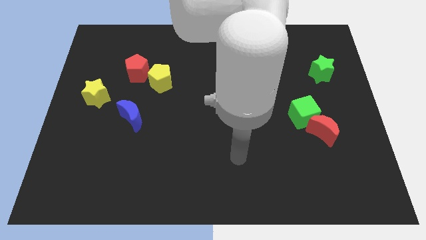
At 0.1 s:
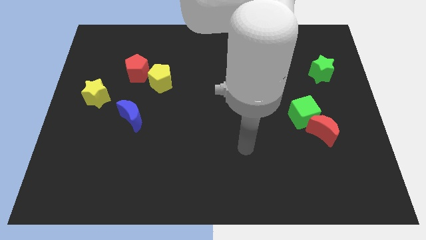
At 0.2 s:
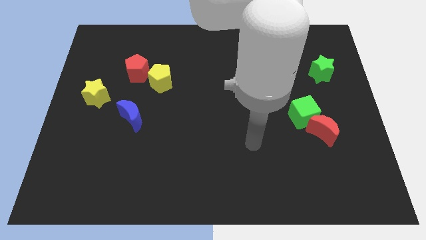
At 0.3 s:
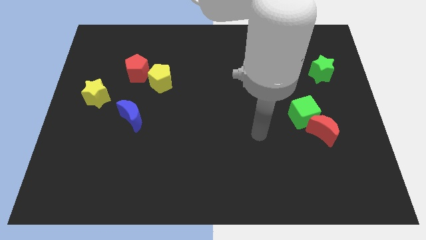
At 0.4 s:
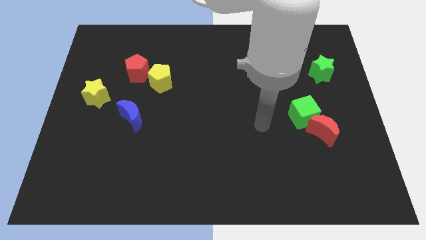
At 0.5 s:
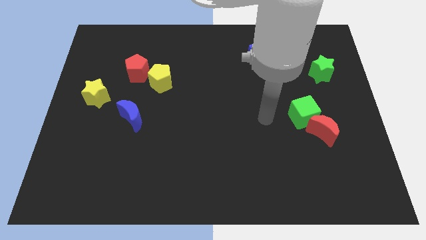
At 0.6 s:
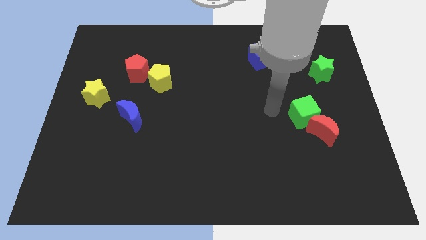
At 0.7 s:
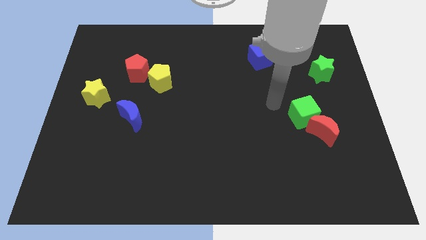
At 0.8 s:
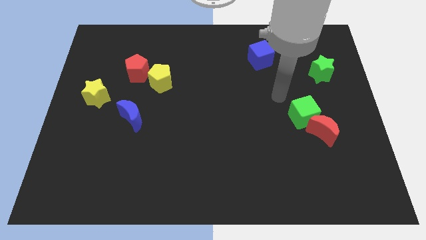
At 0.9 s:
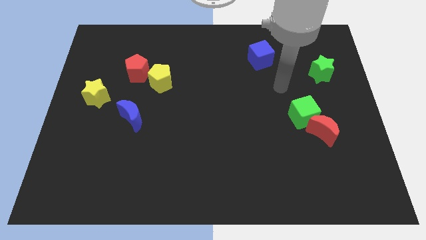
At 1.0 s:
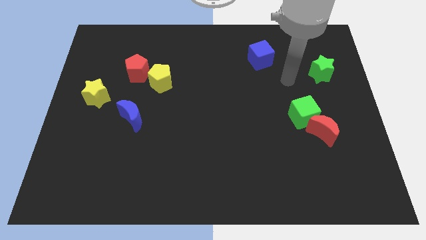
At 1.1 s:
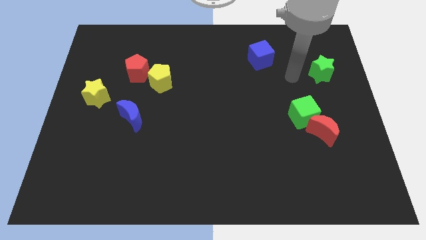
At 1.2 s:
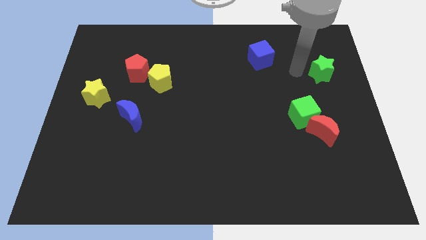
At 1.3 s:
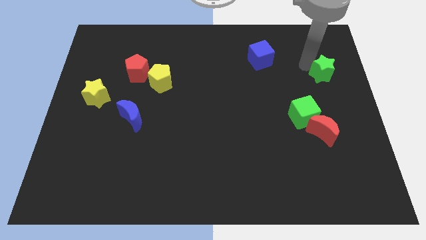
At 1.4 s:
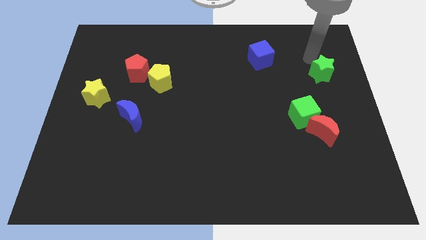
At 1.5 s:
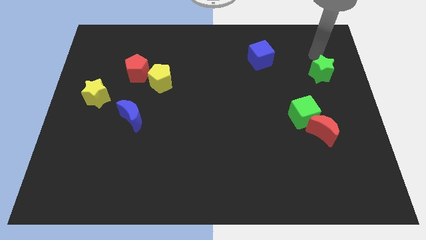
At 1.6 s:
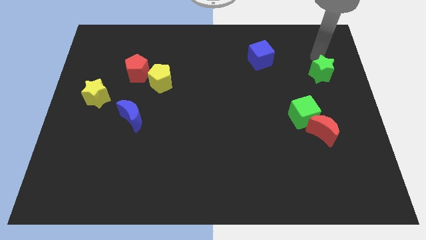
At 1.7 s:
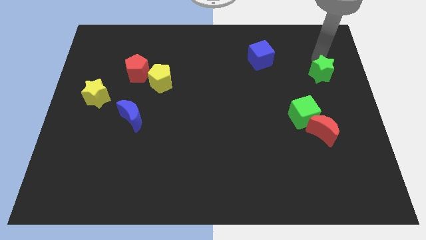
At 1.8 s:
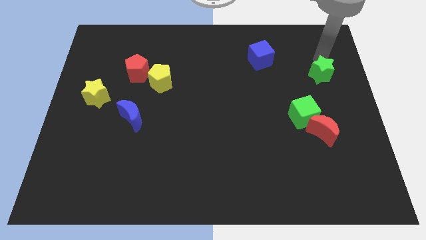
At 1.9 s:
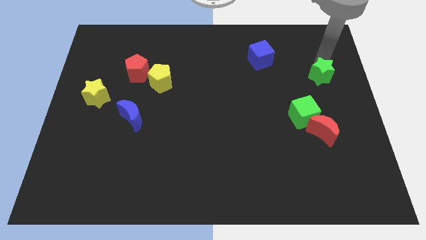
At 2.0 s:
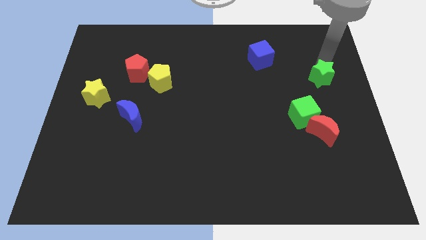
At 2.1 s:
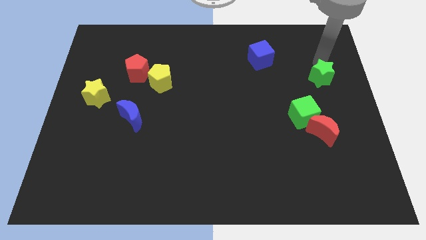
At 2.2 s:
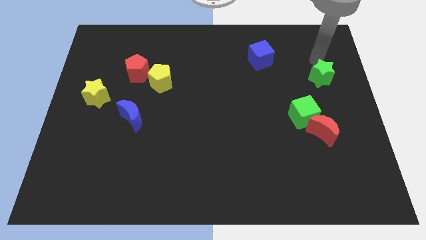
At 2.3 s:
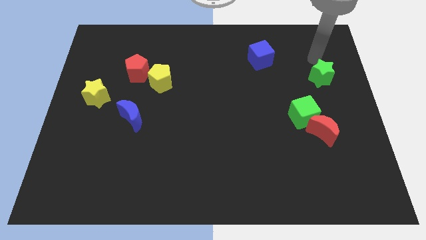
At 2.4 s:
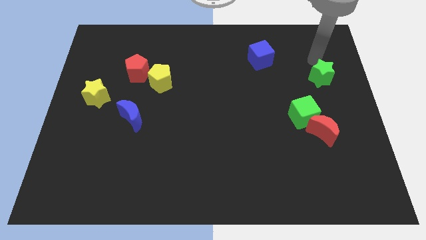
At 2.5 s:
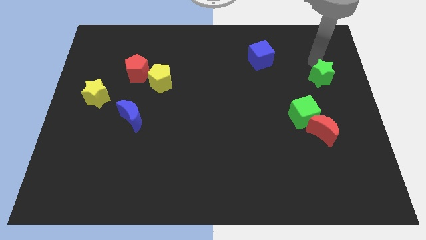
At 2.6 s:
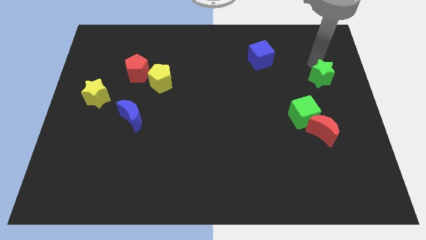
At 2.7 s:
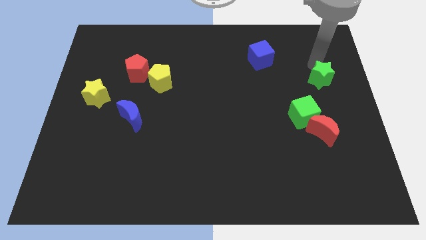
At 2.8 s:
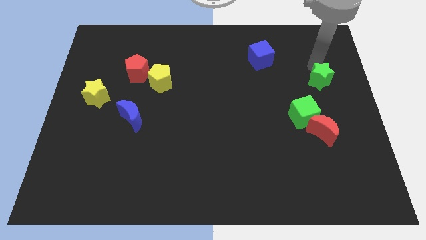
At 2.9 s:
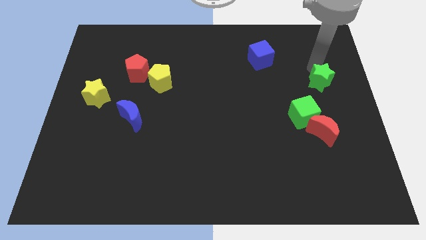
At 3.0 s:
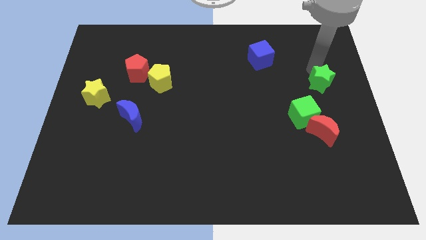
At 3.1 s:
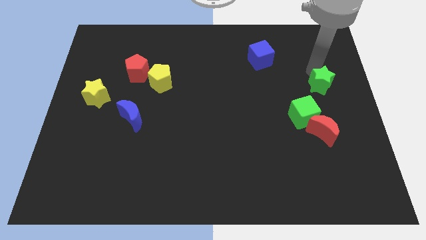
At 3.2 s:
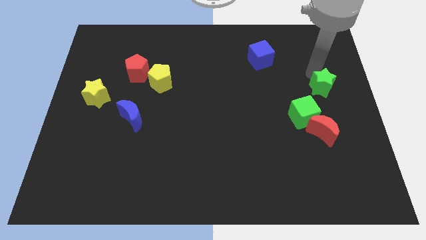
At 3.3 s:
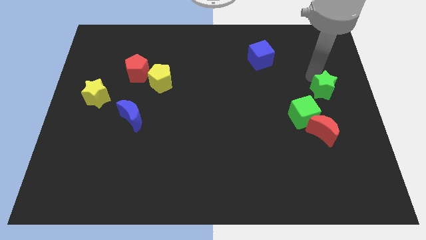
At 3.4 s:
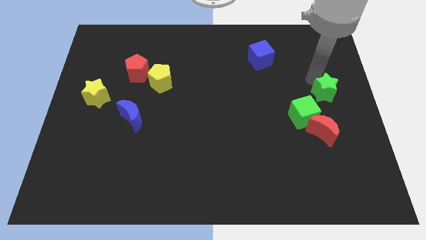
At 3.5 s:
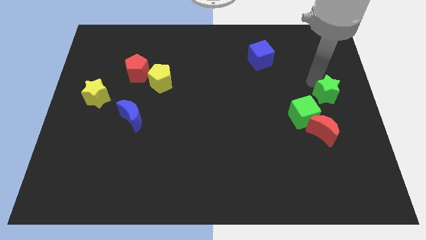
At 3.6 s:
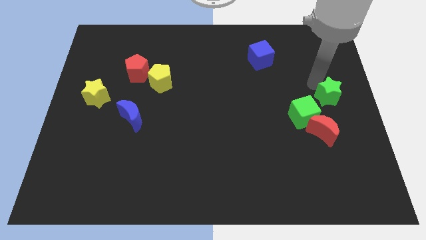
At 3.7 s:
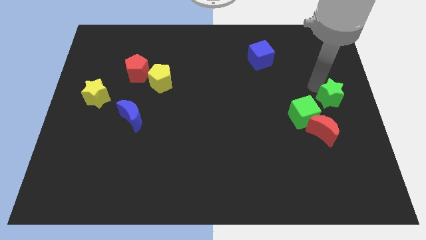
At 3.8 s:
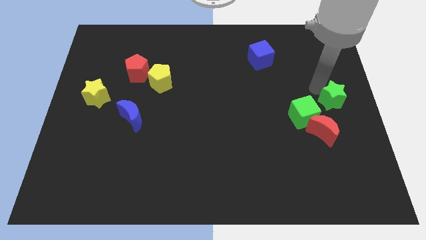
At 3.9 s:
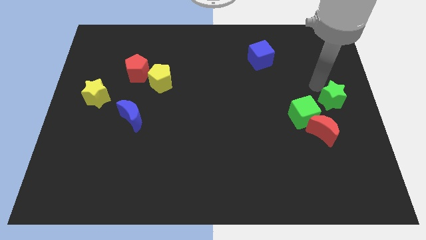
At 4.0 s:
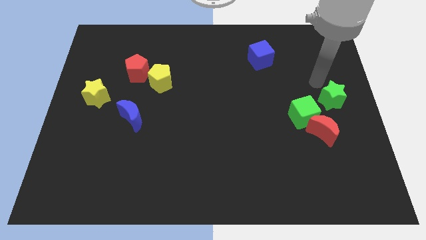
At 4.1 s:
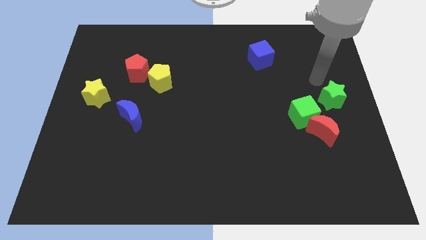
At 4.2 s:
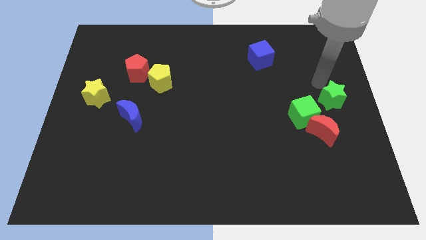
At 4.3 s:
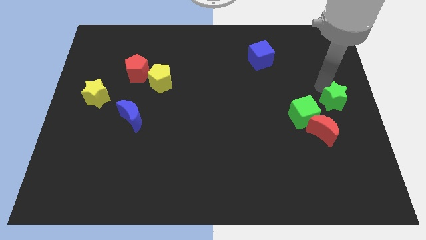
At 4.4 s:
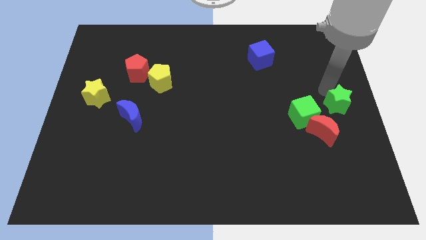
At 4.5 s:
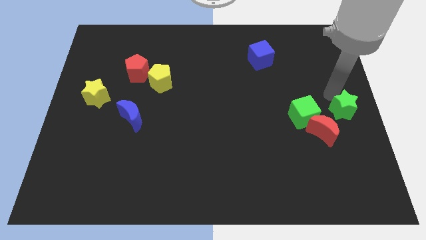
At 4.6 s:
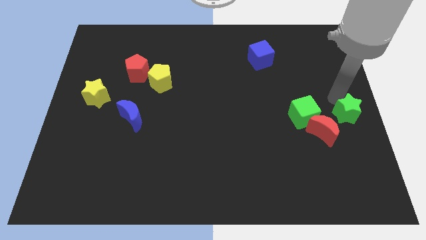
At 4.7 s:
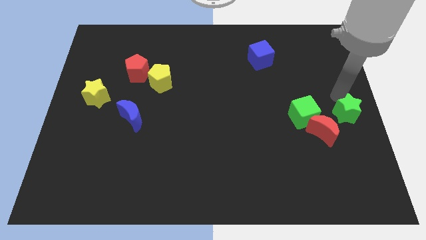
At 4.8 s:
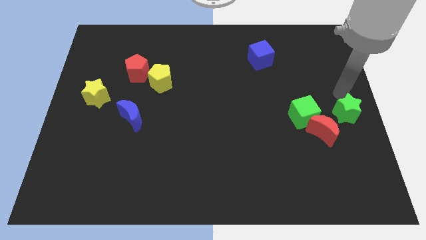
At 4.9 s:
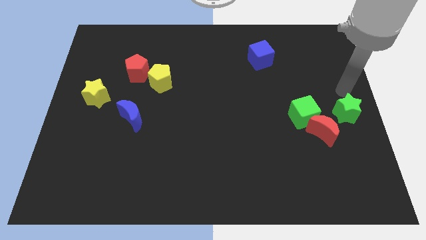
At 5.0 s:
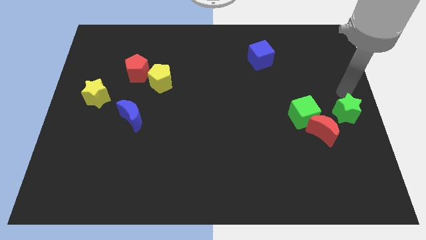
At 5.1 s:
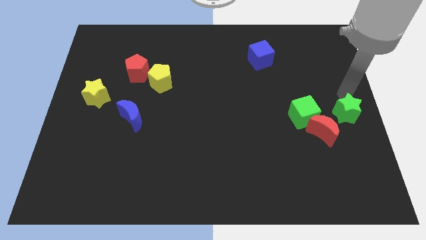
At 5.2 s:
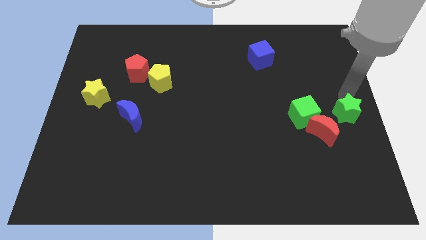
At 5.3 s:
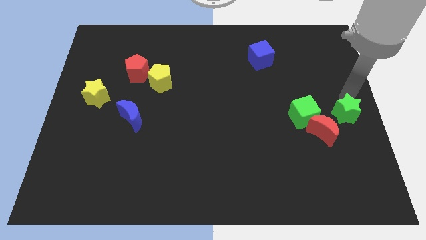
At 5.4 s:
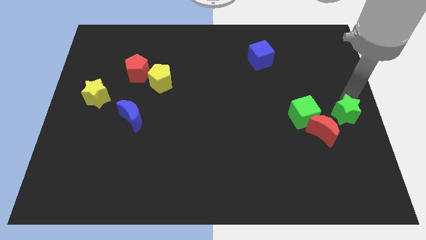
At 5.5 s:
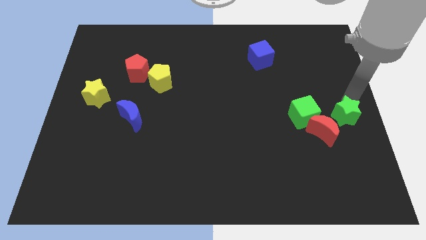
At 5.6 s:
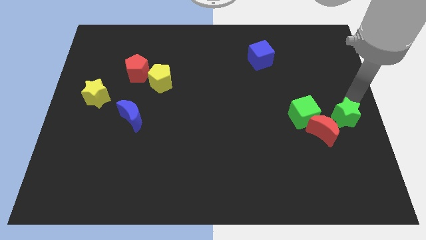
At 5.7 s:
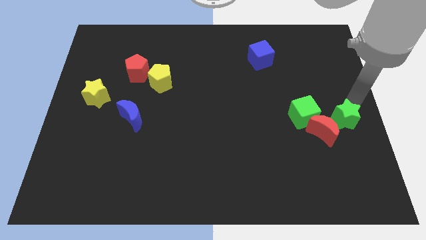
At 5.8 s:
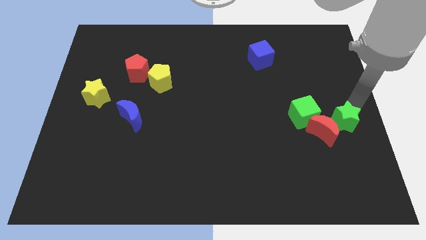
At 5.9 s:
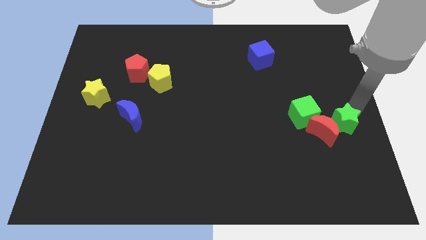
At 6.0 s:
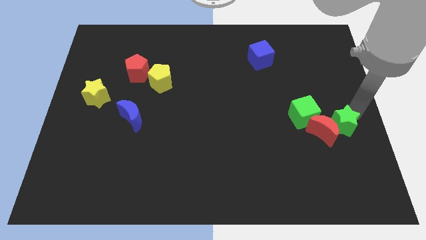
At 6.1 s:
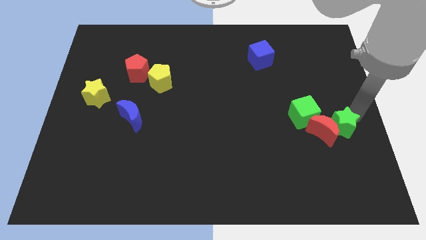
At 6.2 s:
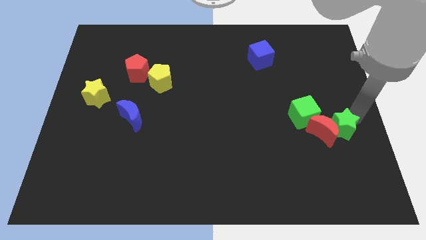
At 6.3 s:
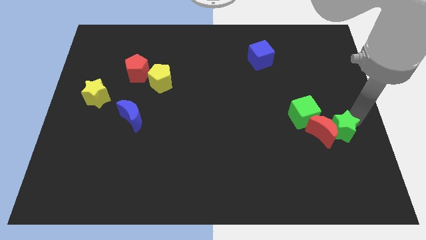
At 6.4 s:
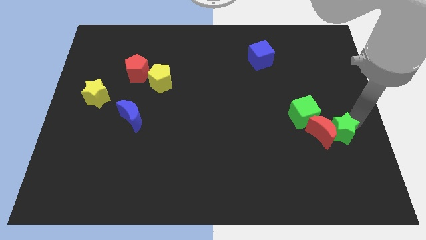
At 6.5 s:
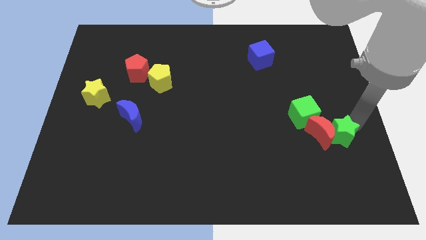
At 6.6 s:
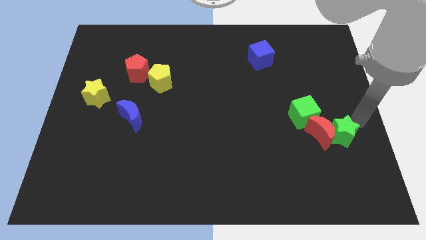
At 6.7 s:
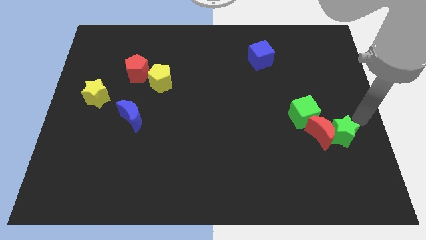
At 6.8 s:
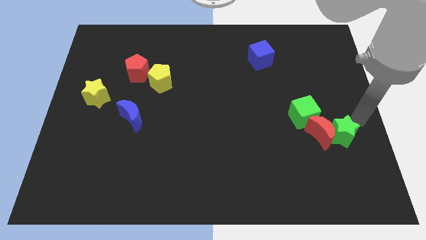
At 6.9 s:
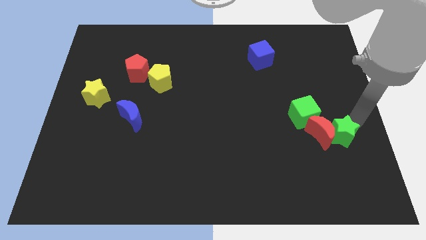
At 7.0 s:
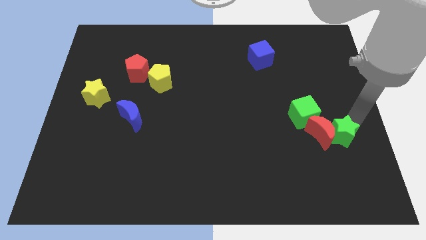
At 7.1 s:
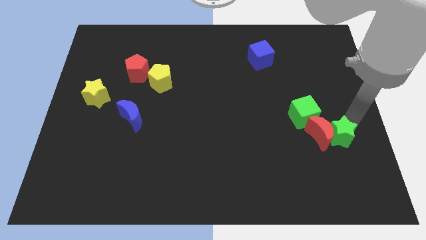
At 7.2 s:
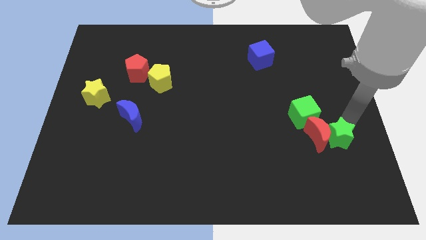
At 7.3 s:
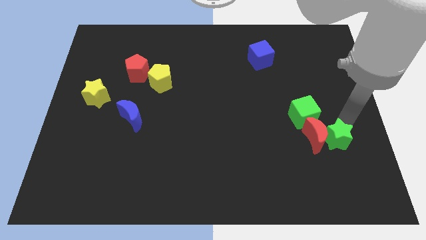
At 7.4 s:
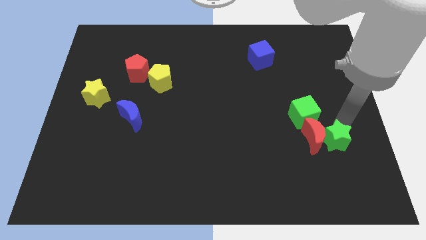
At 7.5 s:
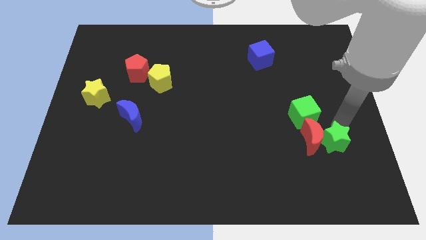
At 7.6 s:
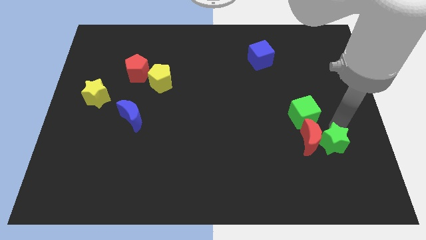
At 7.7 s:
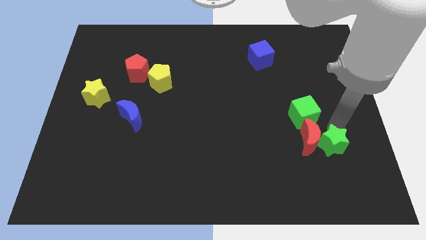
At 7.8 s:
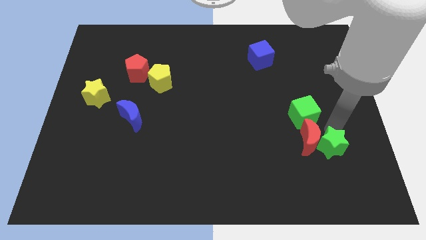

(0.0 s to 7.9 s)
move the green star to the bottom of the green cube
